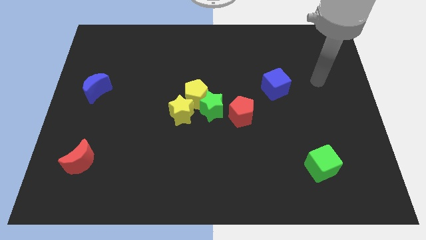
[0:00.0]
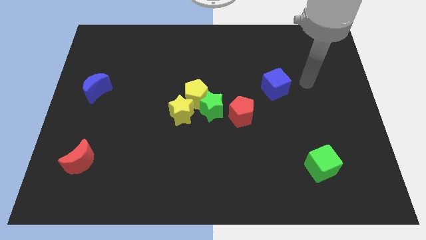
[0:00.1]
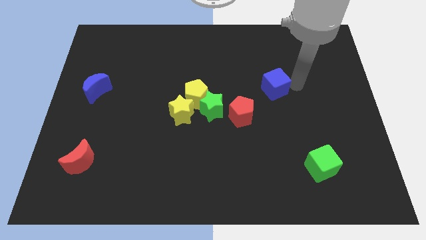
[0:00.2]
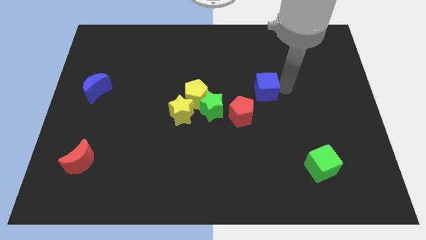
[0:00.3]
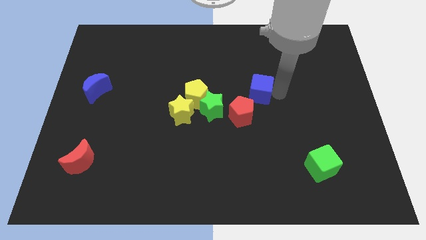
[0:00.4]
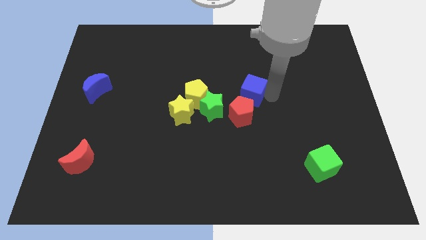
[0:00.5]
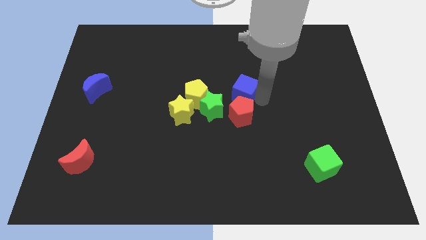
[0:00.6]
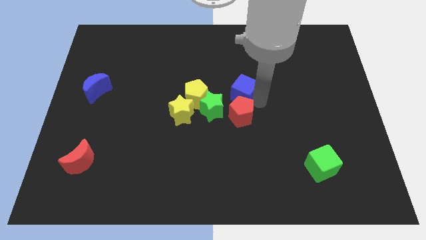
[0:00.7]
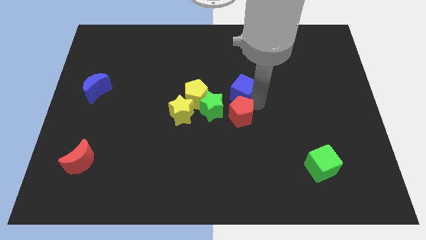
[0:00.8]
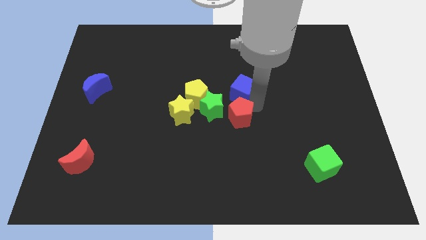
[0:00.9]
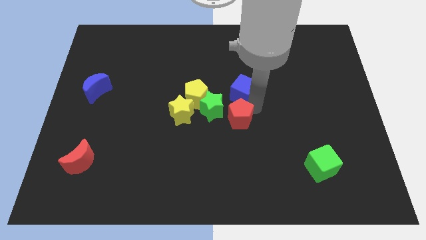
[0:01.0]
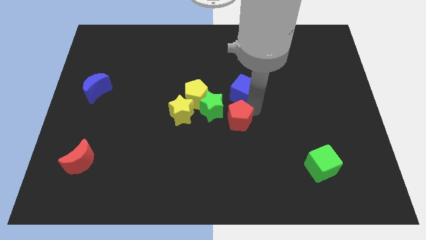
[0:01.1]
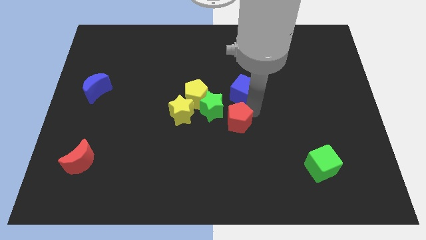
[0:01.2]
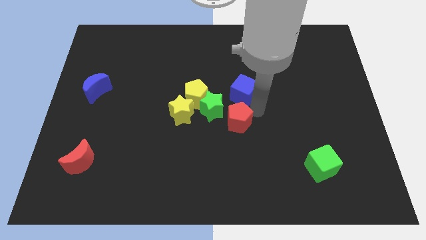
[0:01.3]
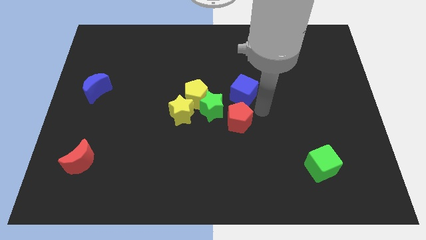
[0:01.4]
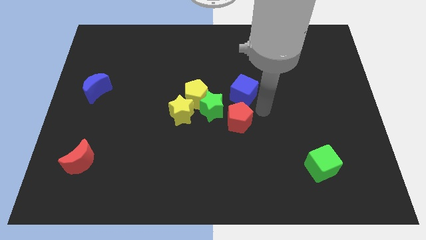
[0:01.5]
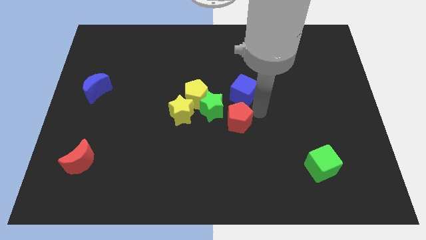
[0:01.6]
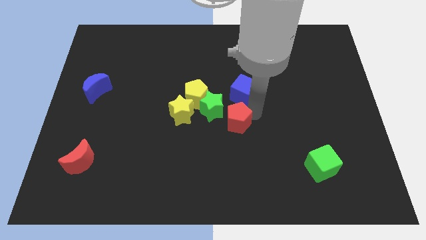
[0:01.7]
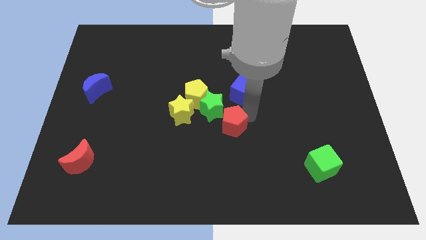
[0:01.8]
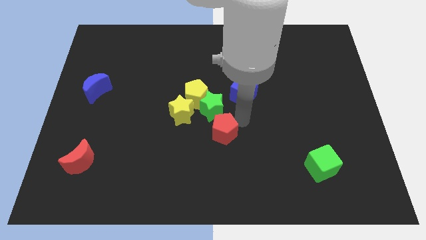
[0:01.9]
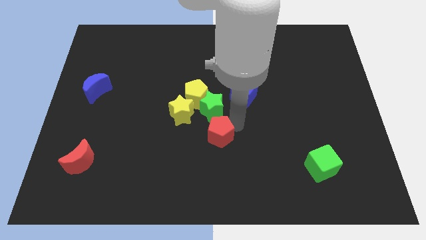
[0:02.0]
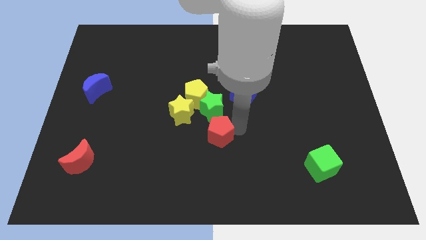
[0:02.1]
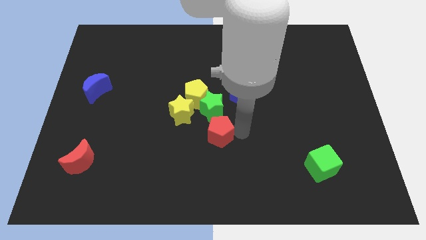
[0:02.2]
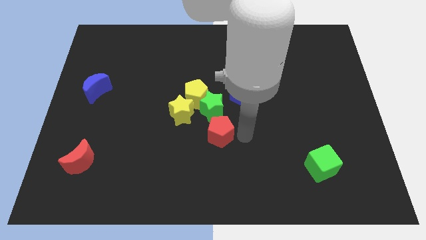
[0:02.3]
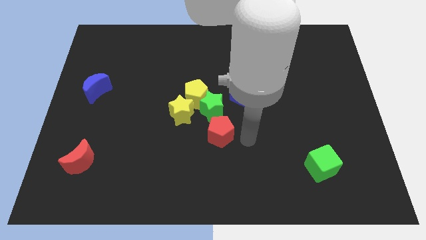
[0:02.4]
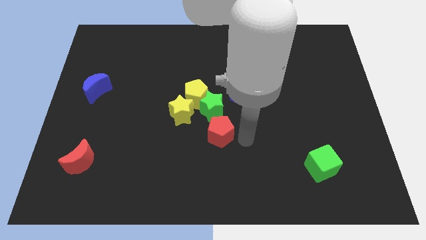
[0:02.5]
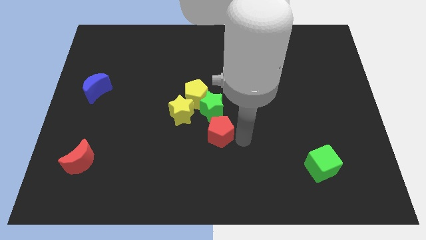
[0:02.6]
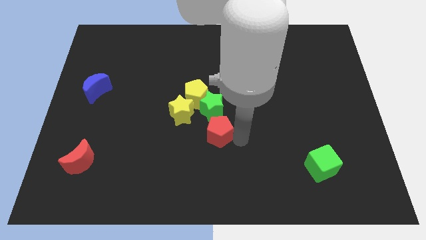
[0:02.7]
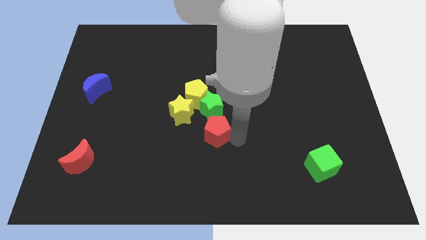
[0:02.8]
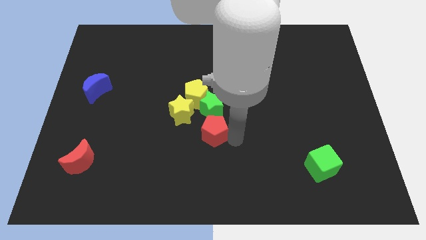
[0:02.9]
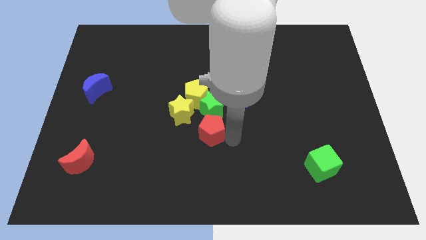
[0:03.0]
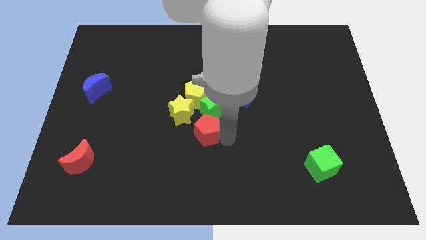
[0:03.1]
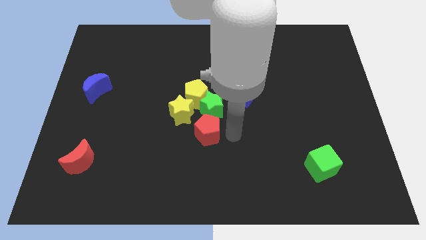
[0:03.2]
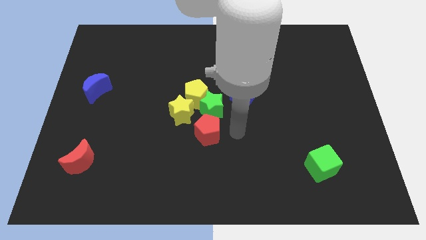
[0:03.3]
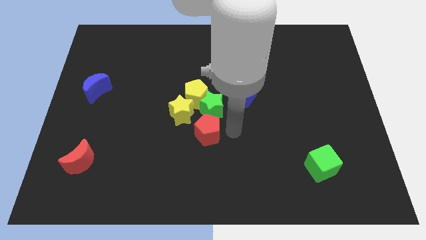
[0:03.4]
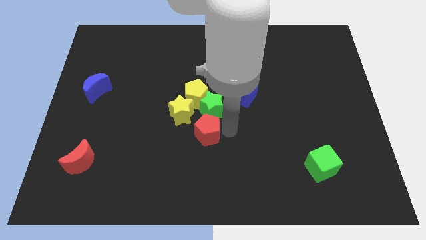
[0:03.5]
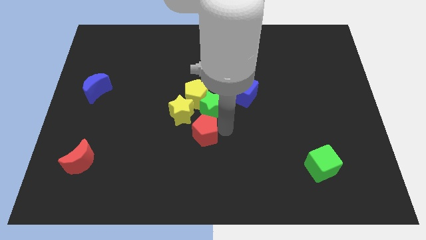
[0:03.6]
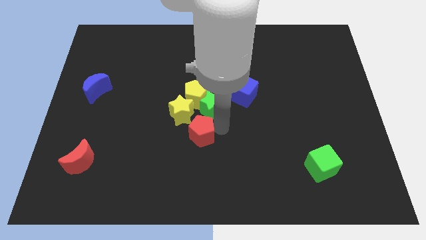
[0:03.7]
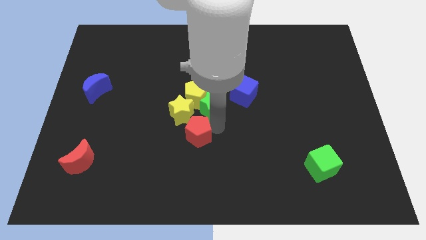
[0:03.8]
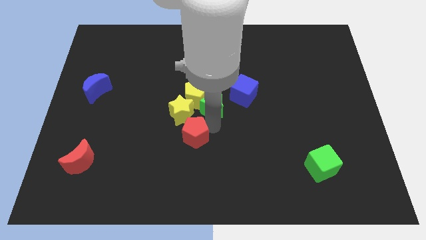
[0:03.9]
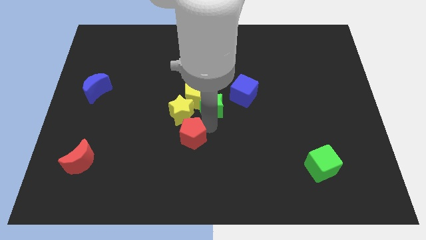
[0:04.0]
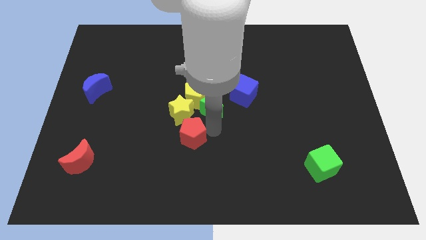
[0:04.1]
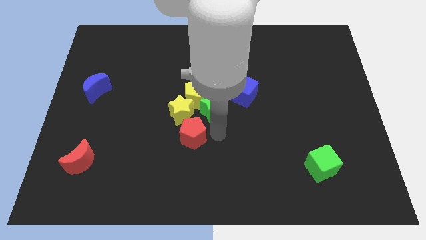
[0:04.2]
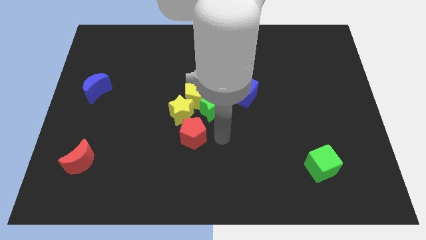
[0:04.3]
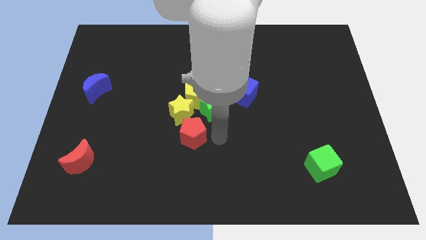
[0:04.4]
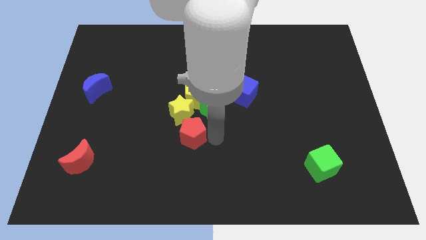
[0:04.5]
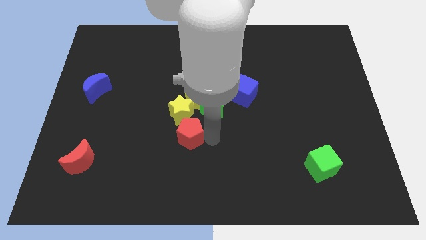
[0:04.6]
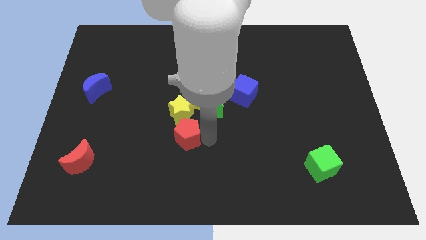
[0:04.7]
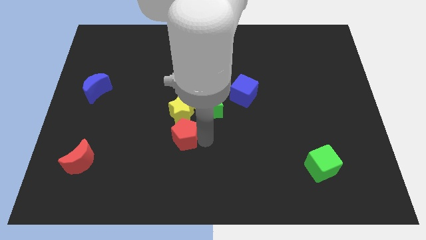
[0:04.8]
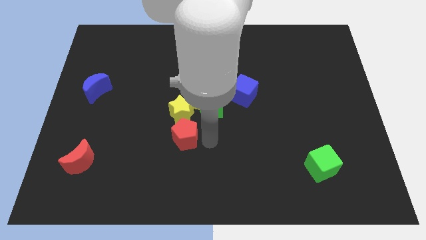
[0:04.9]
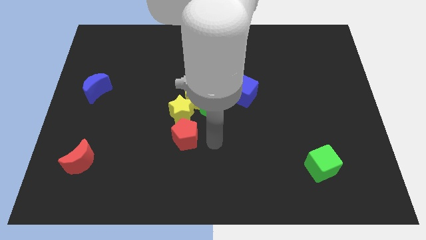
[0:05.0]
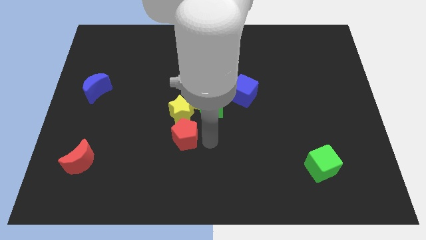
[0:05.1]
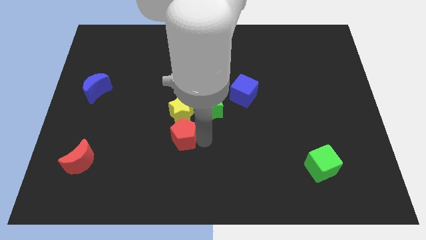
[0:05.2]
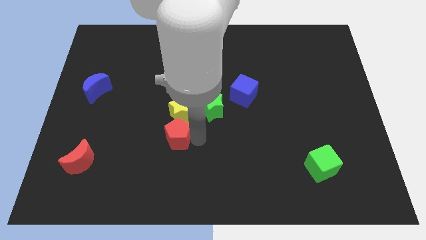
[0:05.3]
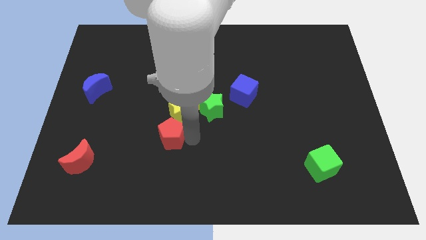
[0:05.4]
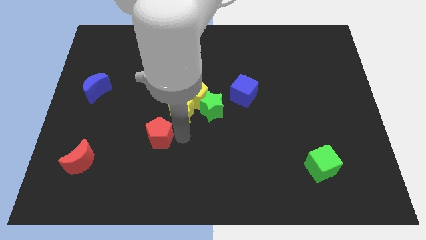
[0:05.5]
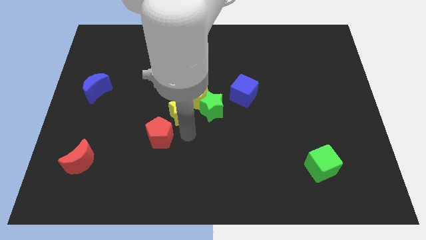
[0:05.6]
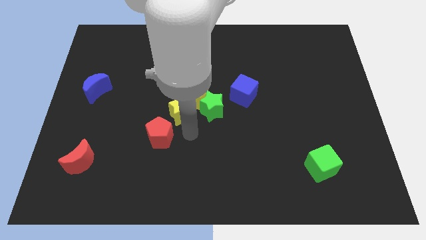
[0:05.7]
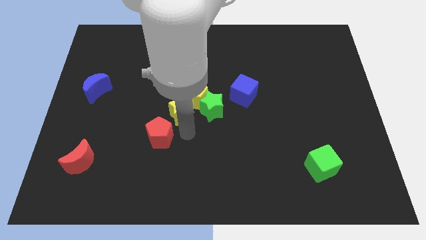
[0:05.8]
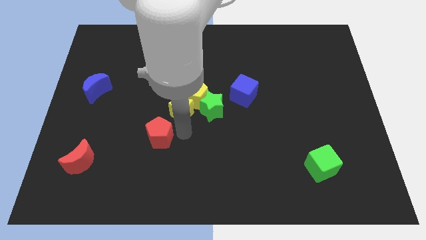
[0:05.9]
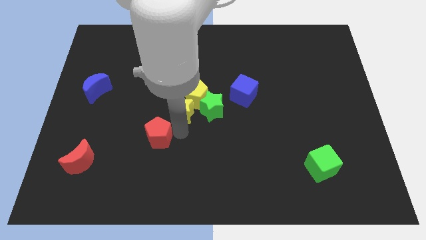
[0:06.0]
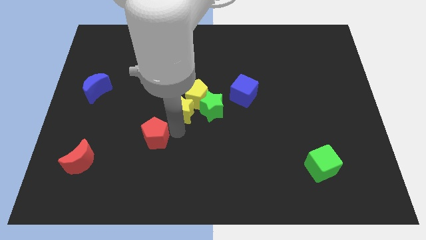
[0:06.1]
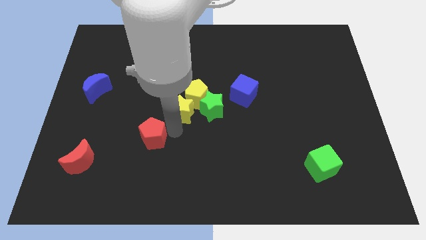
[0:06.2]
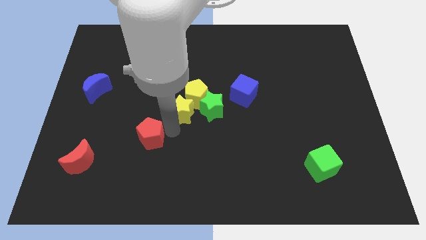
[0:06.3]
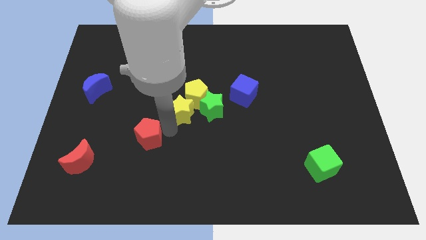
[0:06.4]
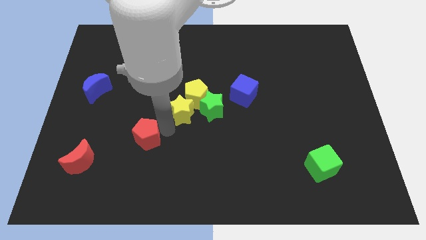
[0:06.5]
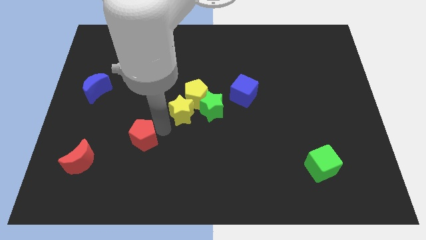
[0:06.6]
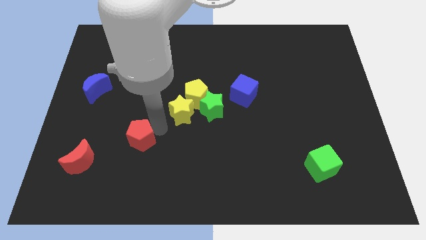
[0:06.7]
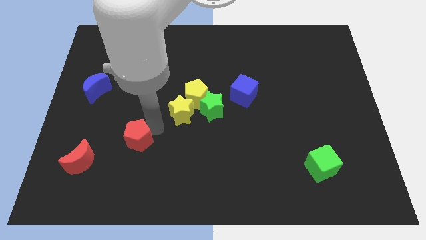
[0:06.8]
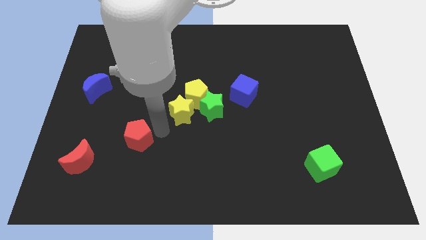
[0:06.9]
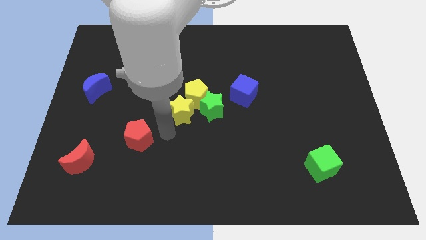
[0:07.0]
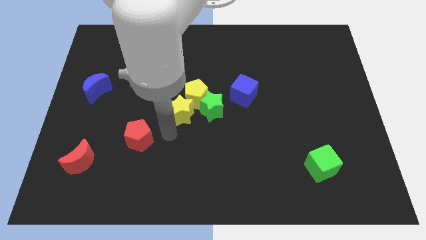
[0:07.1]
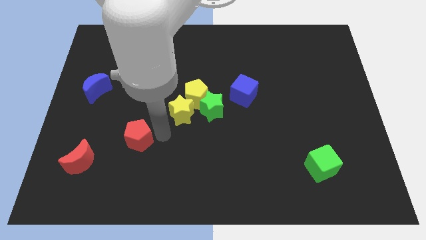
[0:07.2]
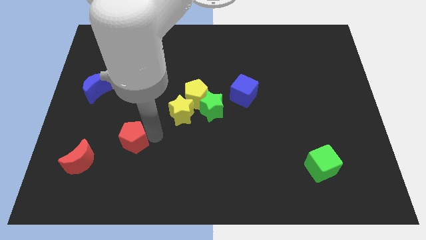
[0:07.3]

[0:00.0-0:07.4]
slide the red pentagon to the top right of the red moon
